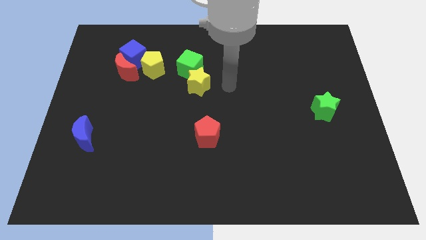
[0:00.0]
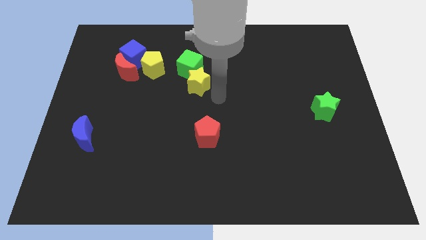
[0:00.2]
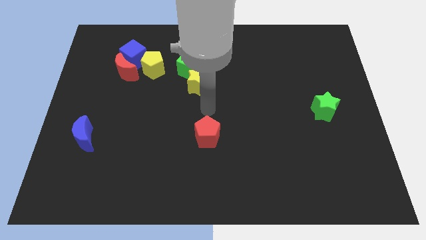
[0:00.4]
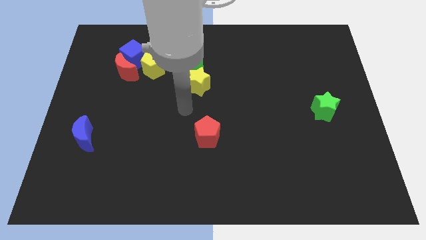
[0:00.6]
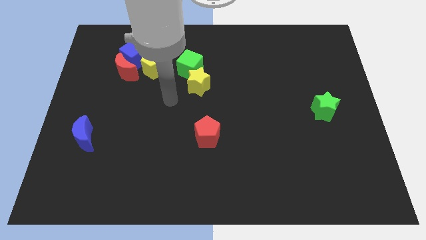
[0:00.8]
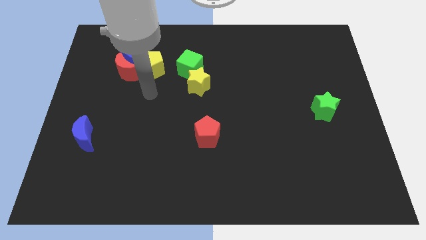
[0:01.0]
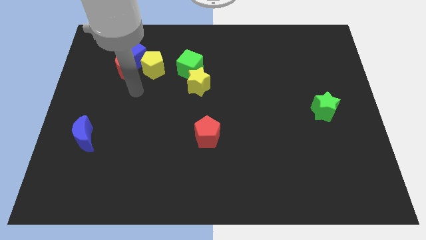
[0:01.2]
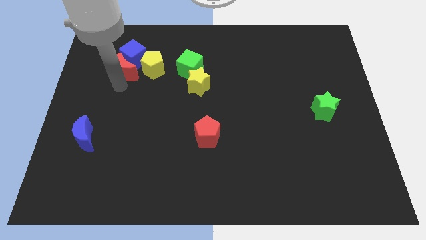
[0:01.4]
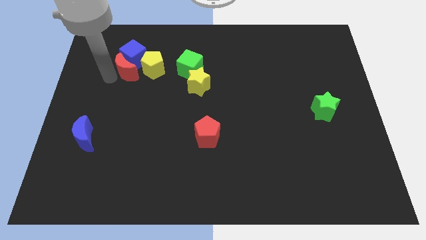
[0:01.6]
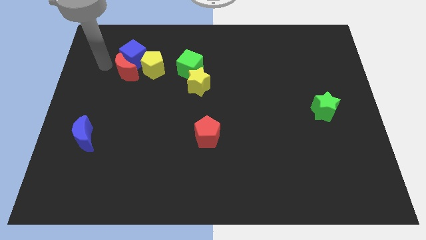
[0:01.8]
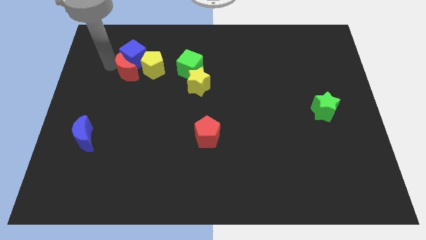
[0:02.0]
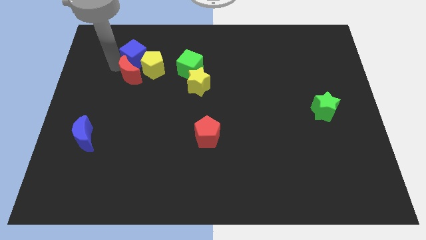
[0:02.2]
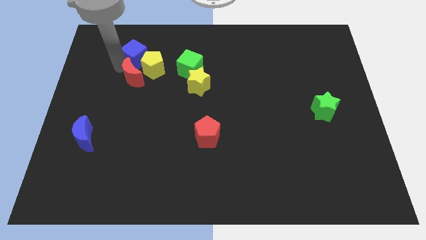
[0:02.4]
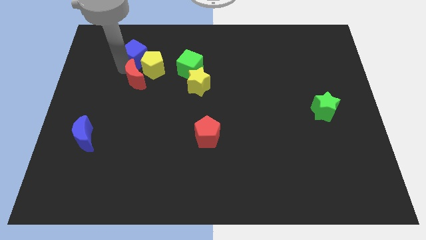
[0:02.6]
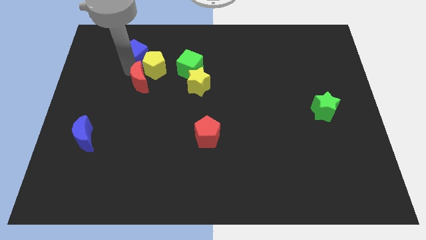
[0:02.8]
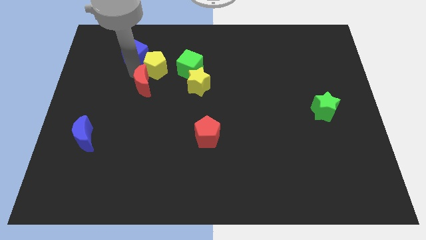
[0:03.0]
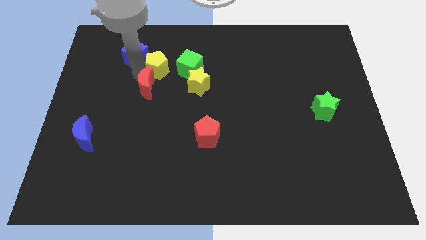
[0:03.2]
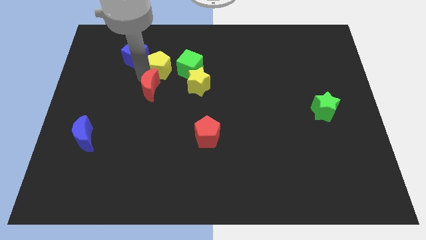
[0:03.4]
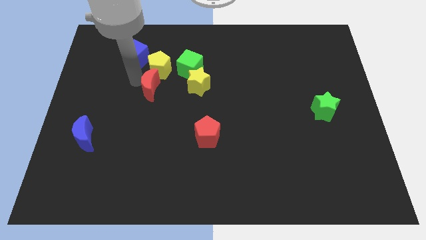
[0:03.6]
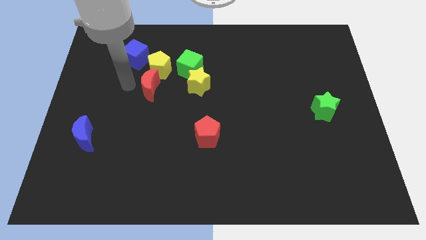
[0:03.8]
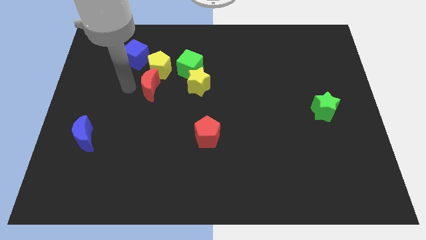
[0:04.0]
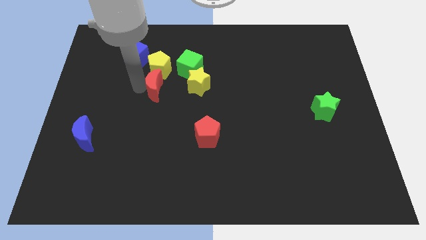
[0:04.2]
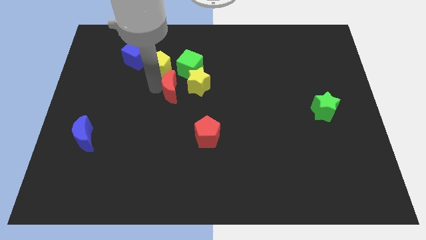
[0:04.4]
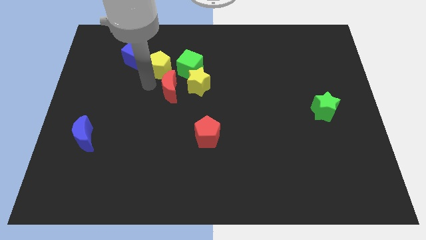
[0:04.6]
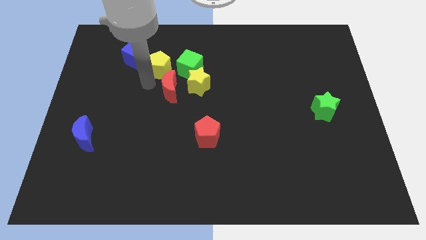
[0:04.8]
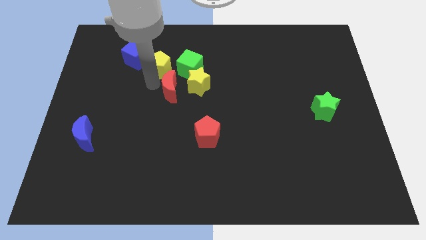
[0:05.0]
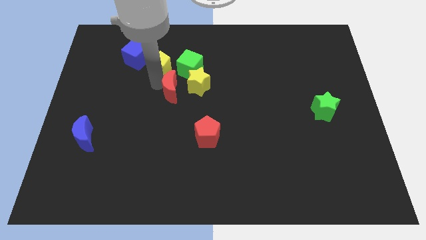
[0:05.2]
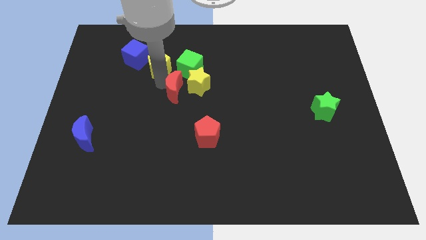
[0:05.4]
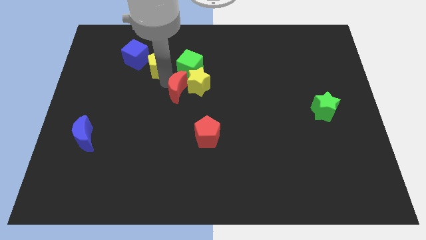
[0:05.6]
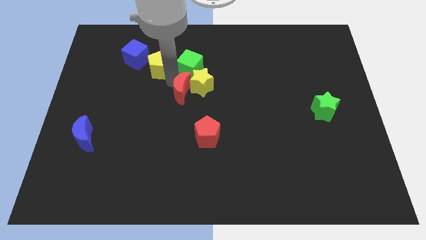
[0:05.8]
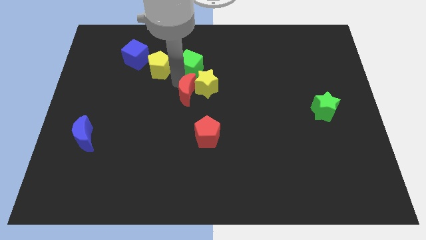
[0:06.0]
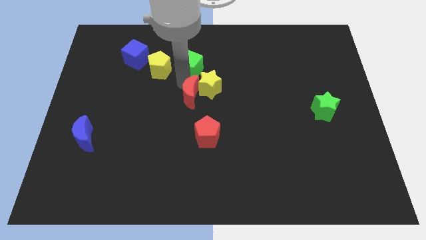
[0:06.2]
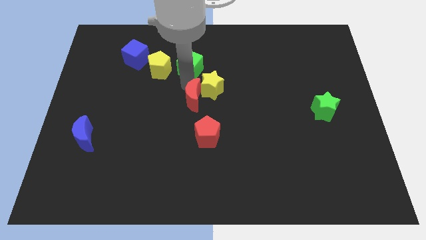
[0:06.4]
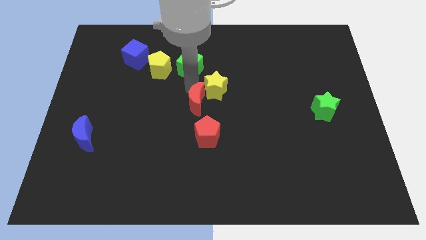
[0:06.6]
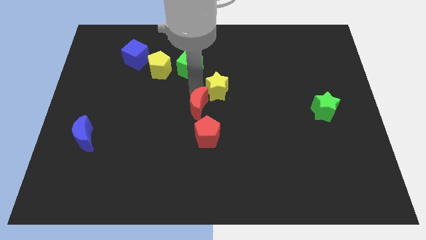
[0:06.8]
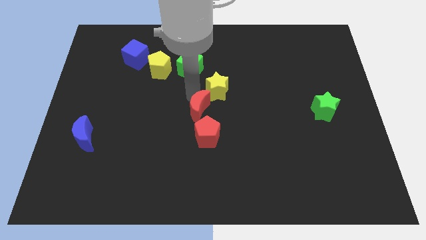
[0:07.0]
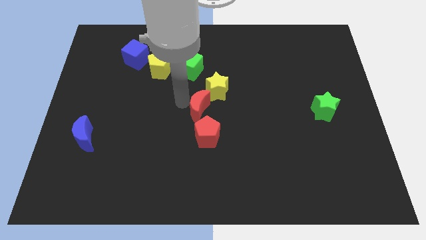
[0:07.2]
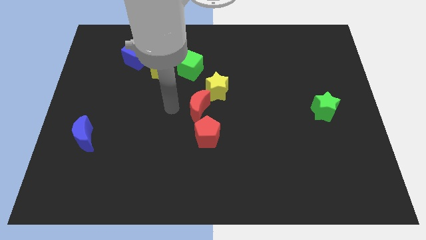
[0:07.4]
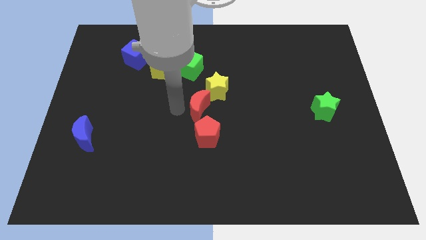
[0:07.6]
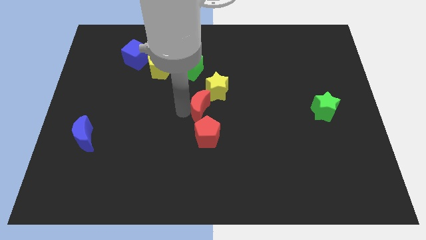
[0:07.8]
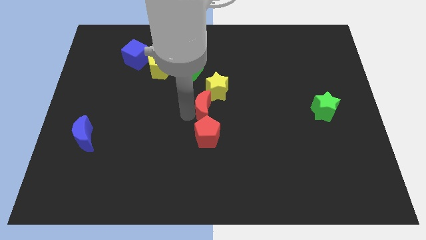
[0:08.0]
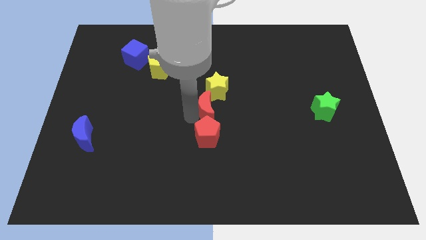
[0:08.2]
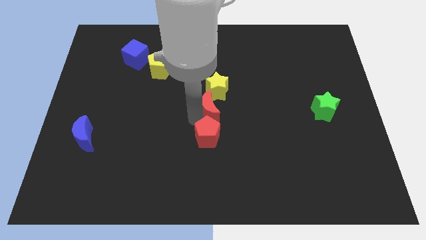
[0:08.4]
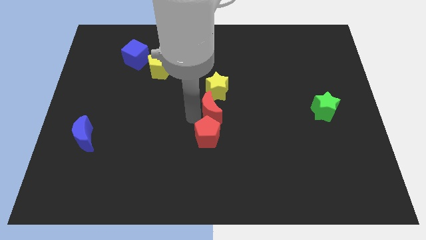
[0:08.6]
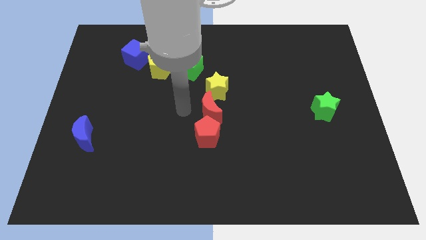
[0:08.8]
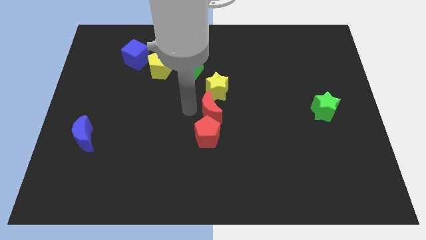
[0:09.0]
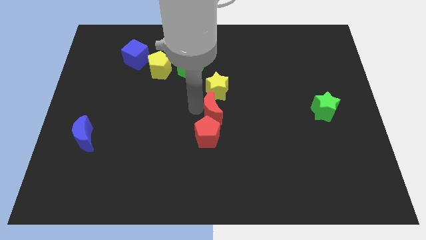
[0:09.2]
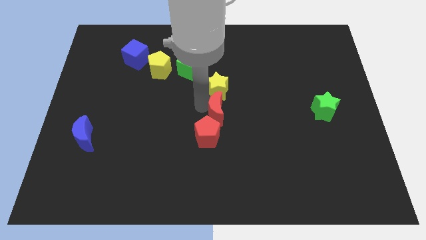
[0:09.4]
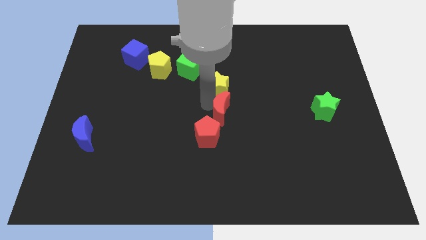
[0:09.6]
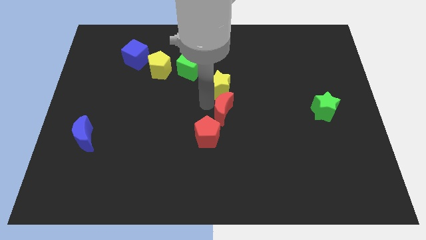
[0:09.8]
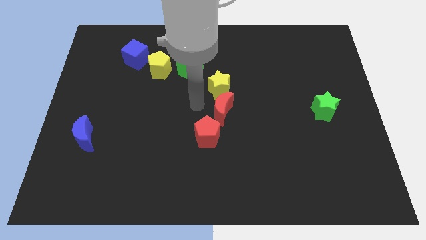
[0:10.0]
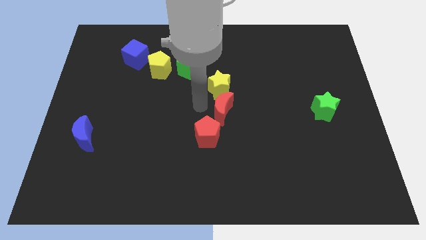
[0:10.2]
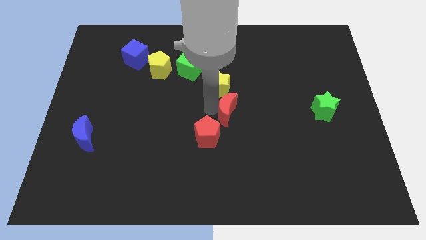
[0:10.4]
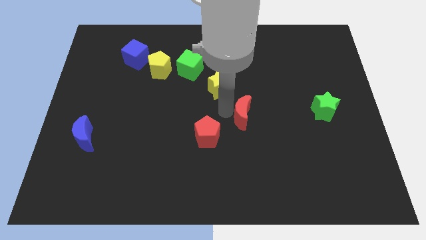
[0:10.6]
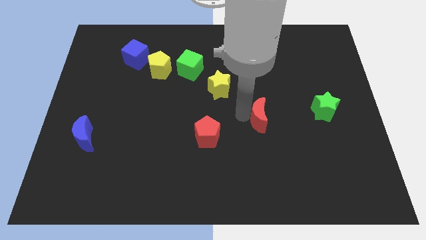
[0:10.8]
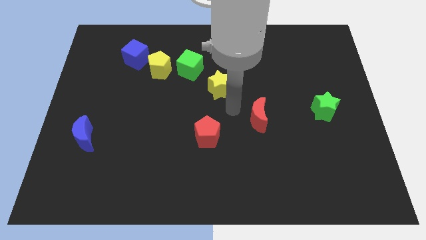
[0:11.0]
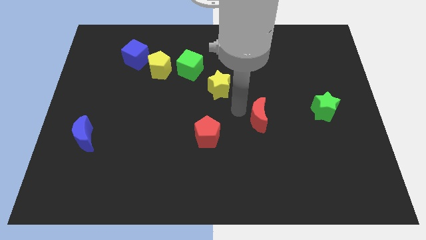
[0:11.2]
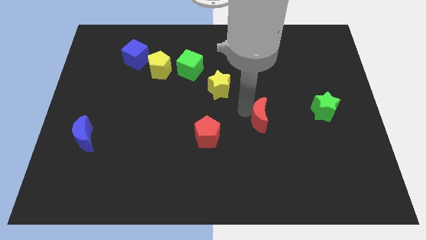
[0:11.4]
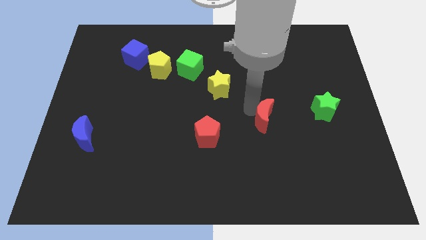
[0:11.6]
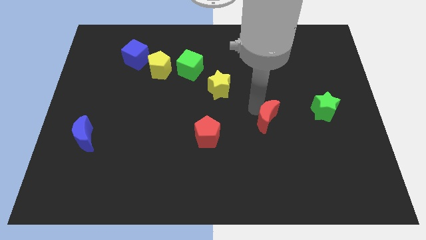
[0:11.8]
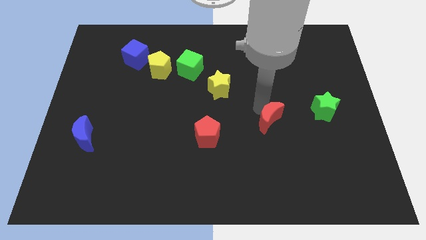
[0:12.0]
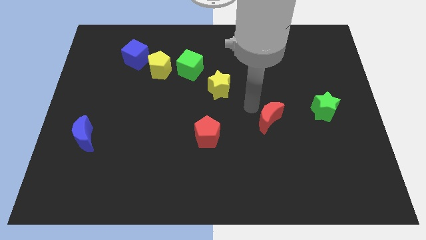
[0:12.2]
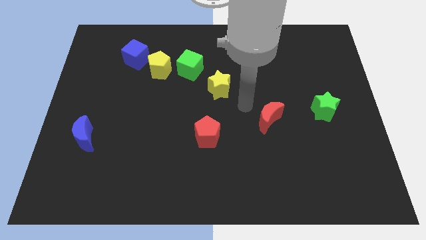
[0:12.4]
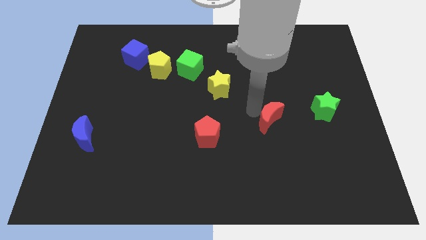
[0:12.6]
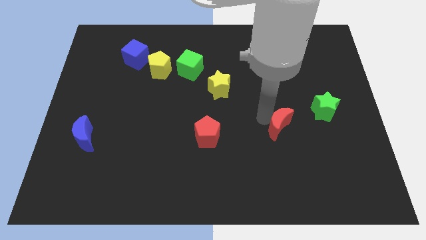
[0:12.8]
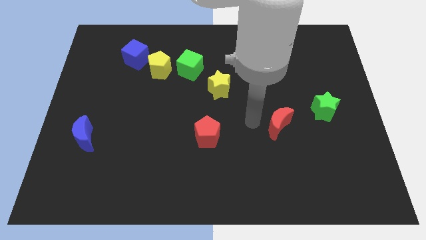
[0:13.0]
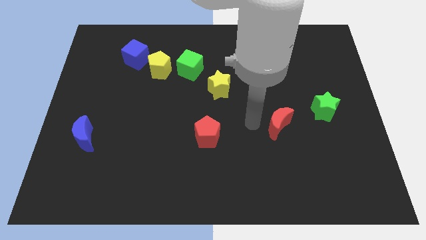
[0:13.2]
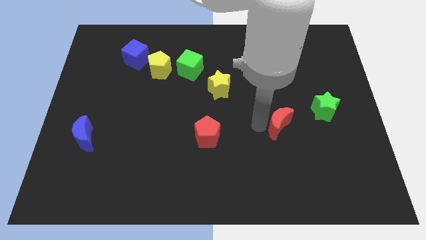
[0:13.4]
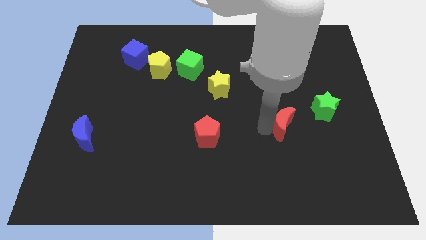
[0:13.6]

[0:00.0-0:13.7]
put the red moon to the bottom left of the green star
